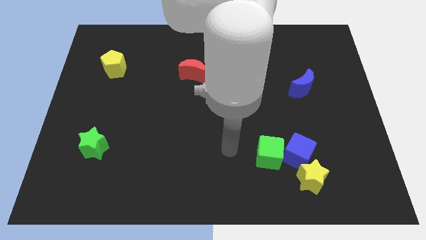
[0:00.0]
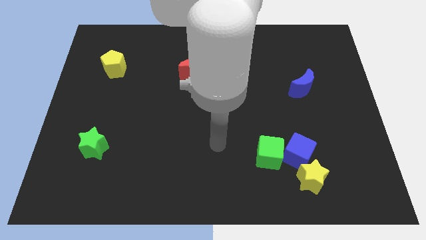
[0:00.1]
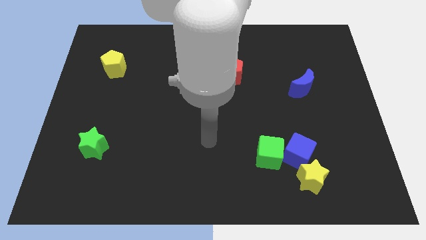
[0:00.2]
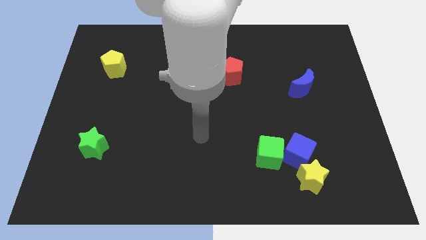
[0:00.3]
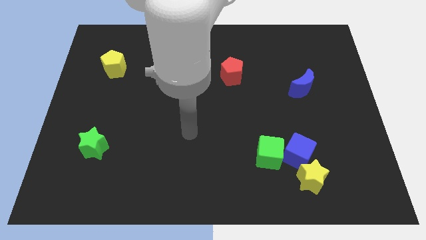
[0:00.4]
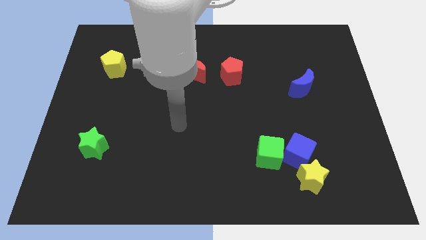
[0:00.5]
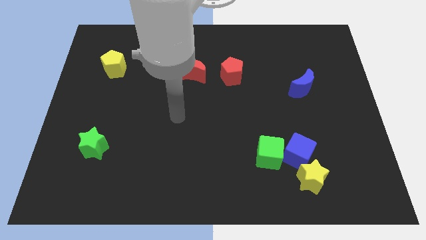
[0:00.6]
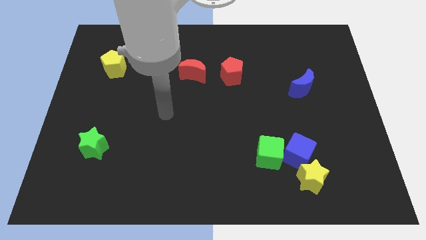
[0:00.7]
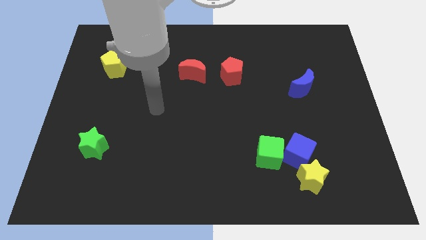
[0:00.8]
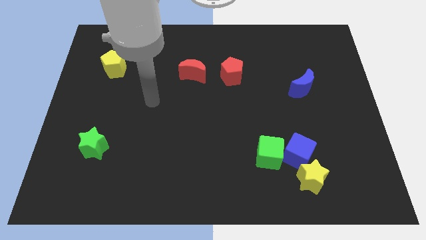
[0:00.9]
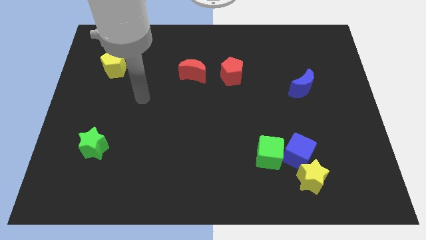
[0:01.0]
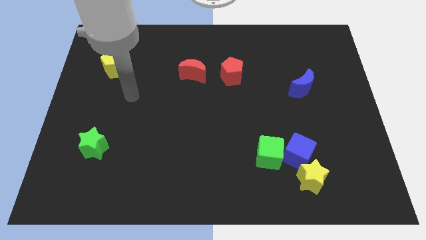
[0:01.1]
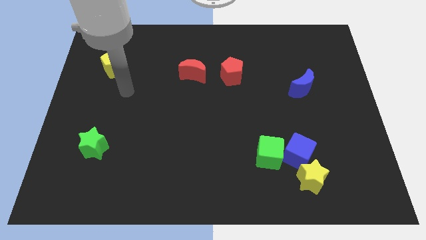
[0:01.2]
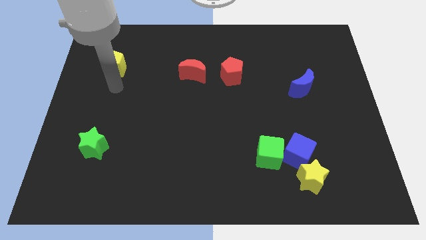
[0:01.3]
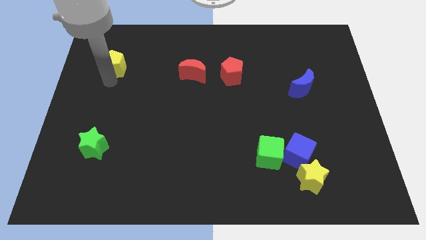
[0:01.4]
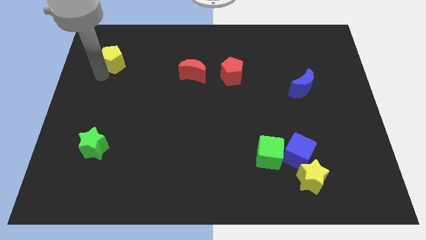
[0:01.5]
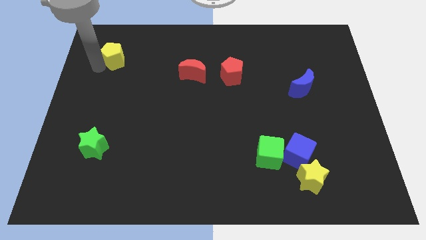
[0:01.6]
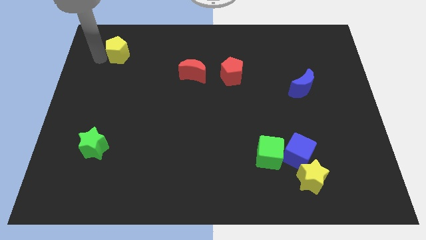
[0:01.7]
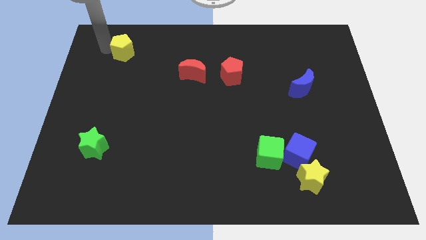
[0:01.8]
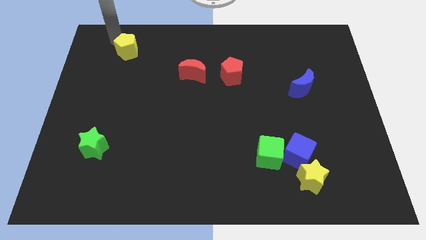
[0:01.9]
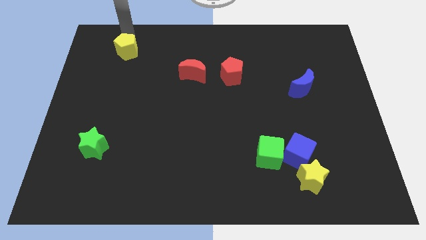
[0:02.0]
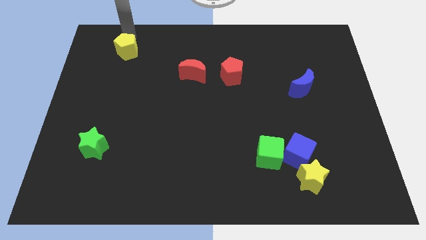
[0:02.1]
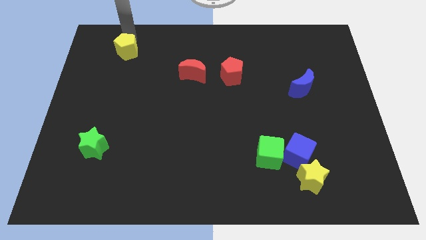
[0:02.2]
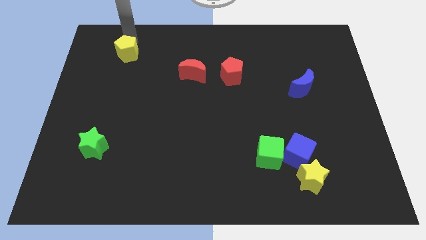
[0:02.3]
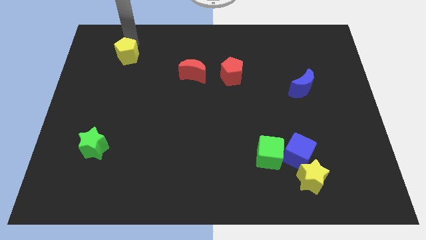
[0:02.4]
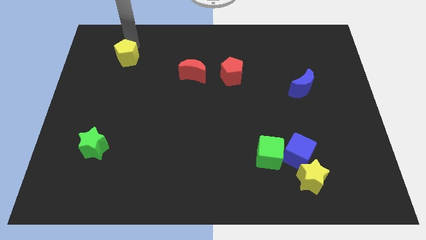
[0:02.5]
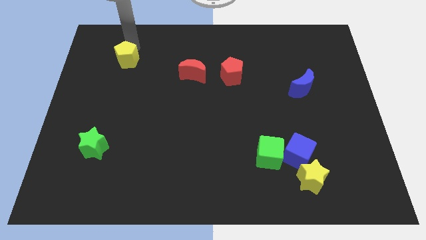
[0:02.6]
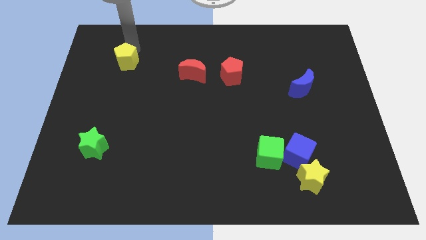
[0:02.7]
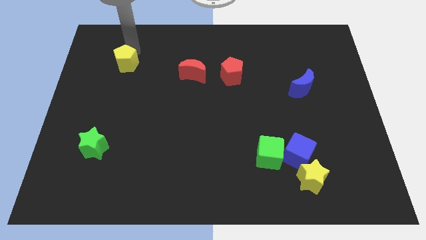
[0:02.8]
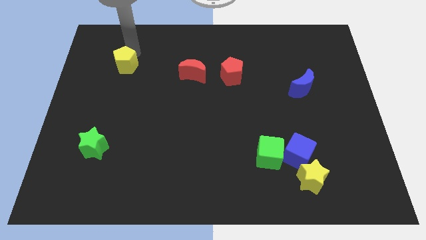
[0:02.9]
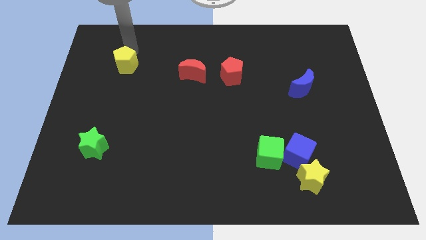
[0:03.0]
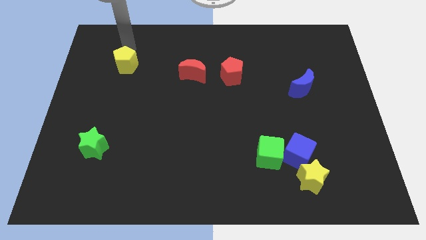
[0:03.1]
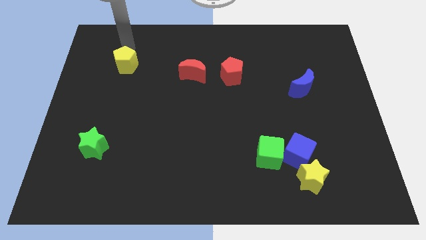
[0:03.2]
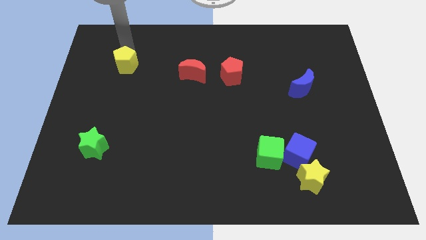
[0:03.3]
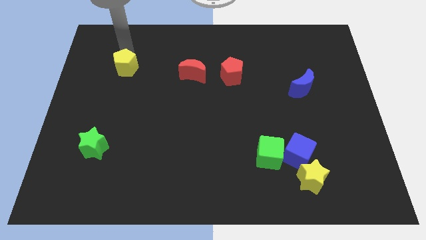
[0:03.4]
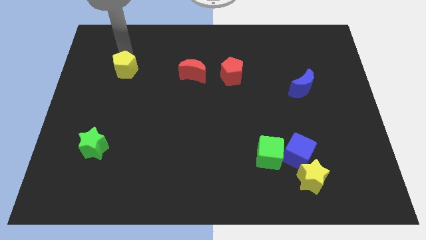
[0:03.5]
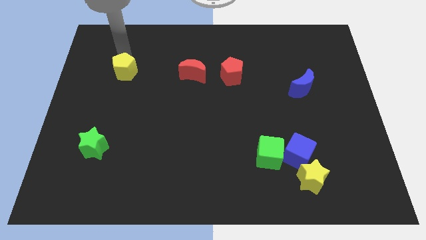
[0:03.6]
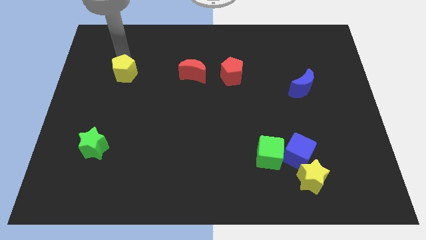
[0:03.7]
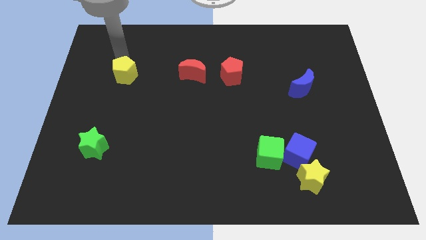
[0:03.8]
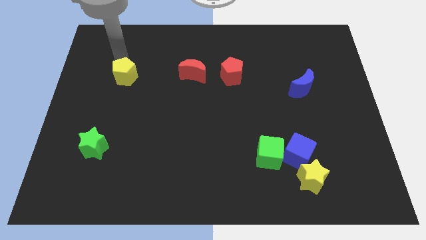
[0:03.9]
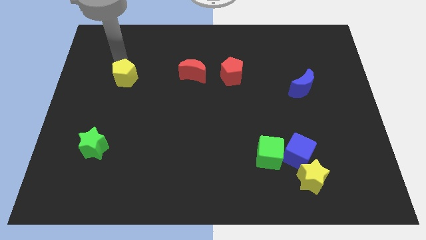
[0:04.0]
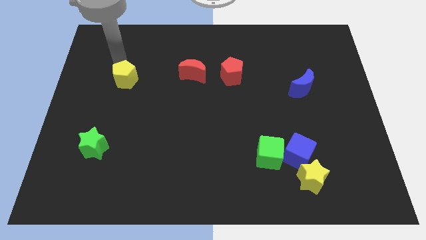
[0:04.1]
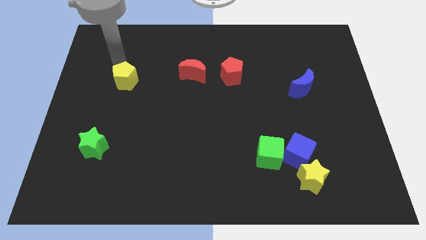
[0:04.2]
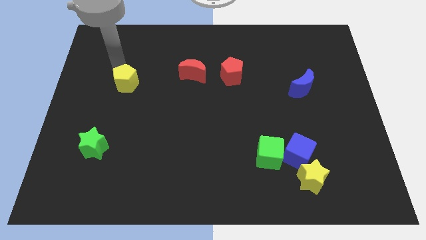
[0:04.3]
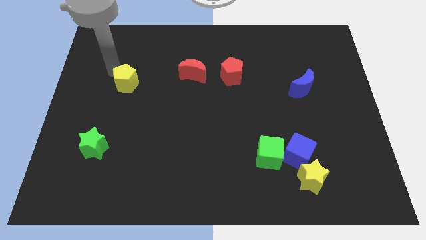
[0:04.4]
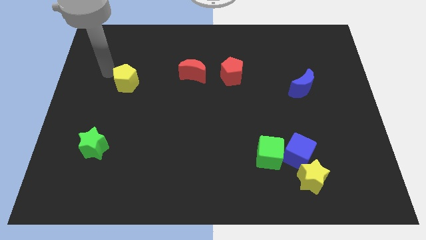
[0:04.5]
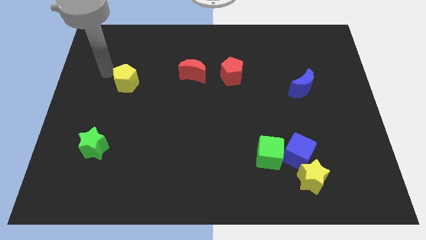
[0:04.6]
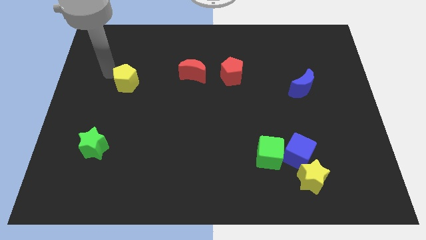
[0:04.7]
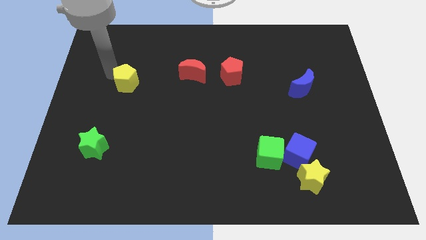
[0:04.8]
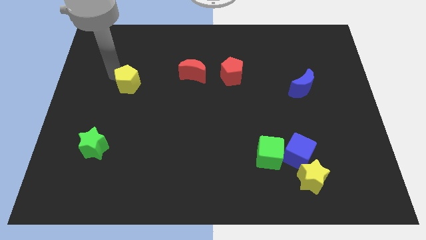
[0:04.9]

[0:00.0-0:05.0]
slightly slide the yellow pentagon down and to the right

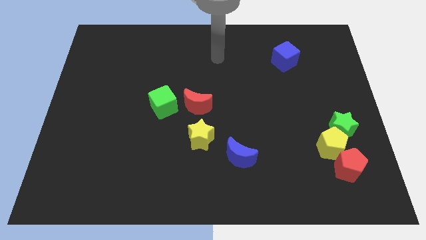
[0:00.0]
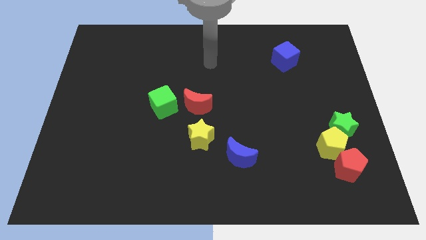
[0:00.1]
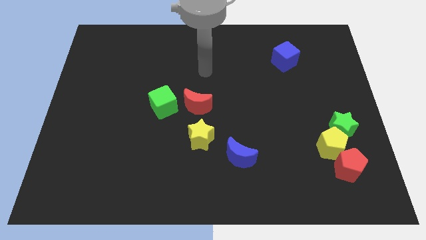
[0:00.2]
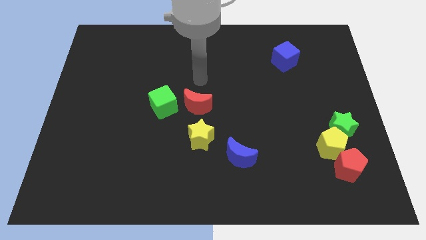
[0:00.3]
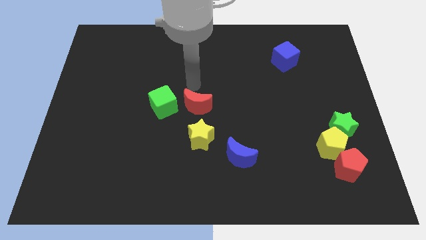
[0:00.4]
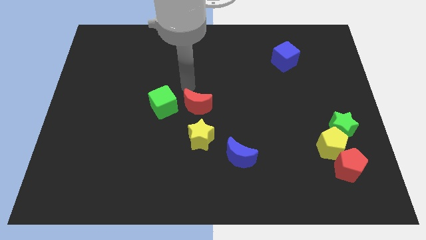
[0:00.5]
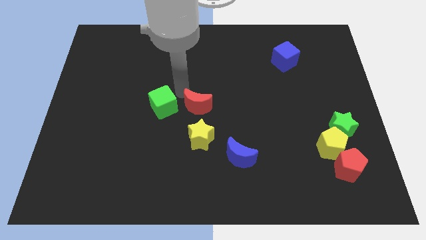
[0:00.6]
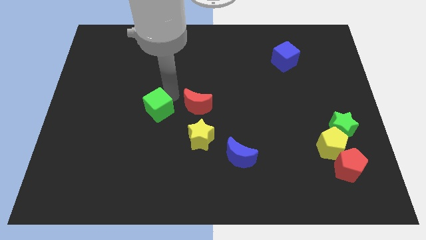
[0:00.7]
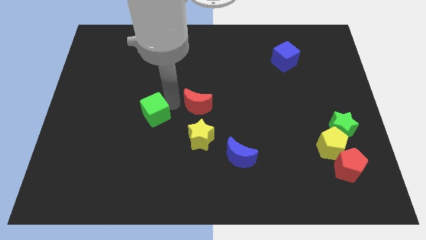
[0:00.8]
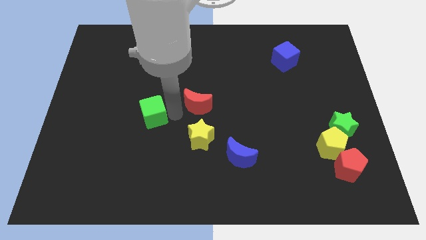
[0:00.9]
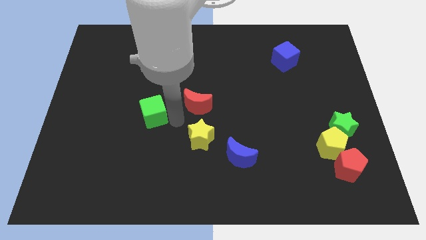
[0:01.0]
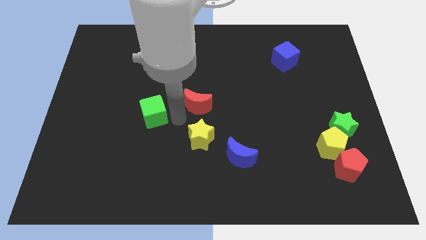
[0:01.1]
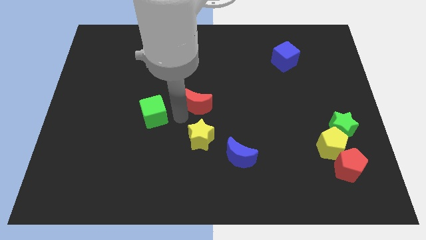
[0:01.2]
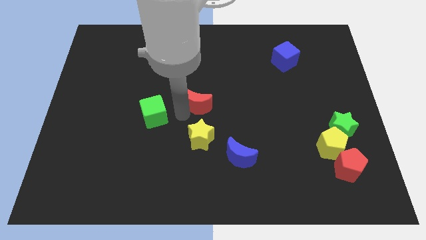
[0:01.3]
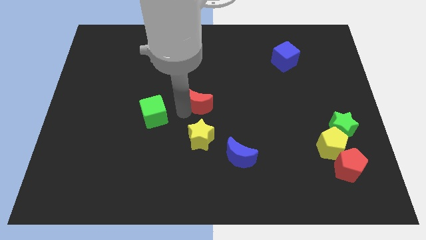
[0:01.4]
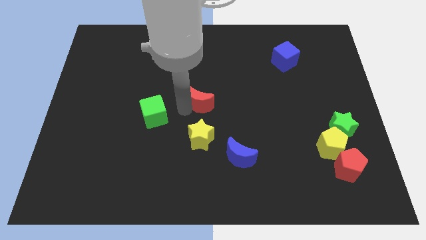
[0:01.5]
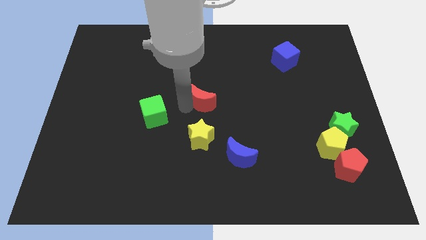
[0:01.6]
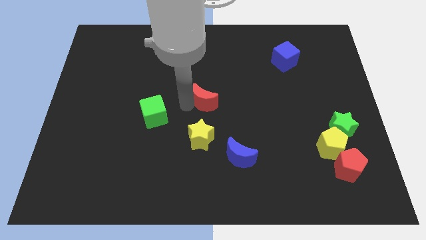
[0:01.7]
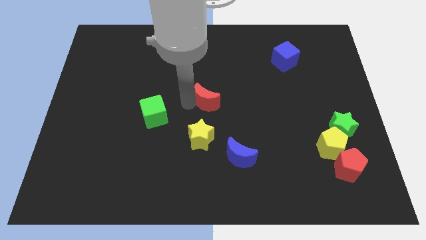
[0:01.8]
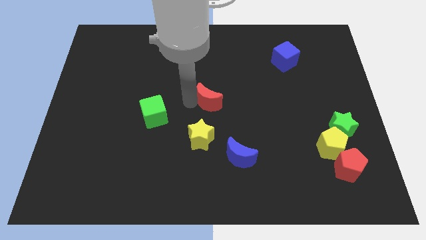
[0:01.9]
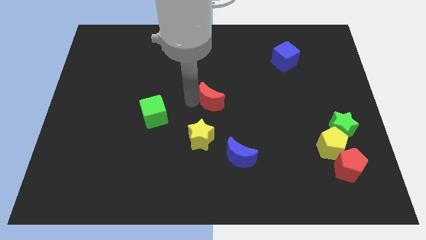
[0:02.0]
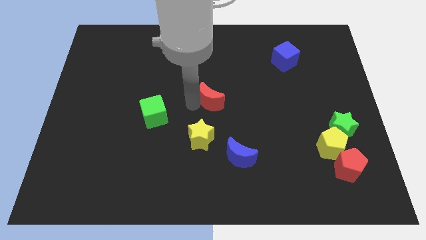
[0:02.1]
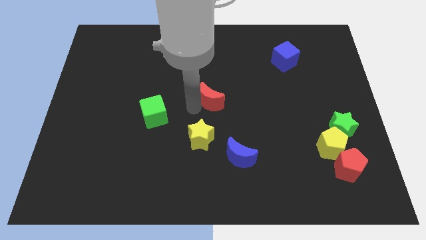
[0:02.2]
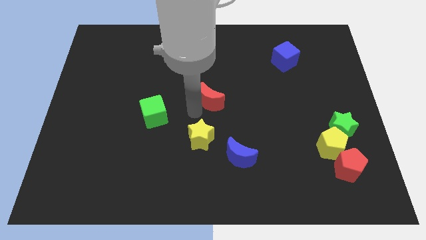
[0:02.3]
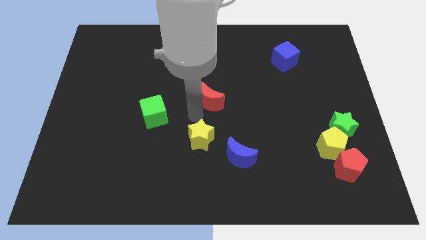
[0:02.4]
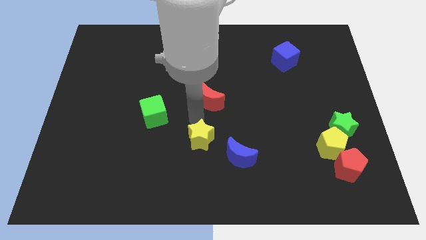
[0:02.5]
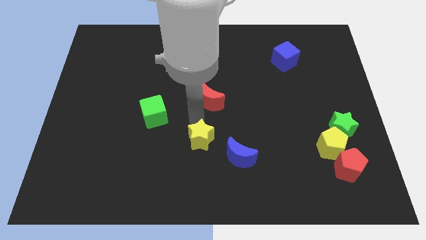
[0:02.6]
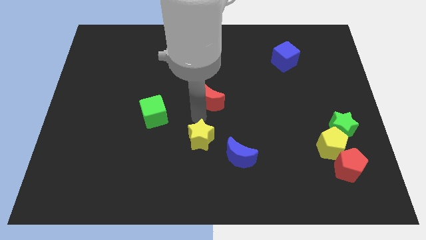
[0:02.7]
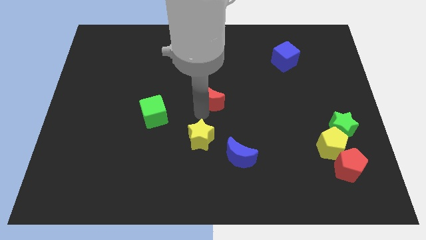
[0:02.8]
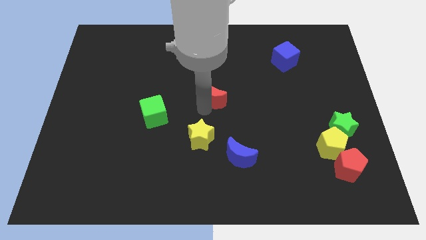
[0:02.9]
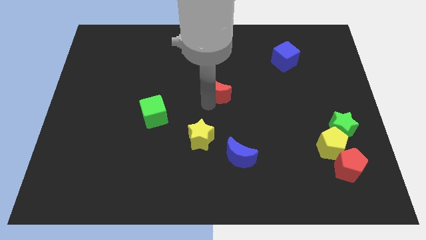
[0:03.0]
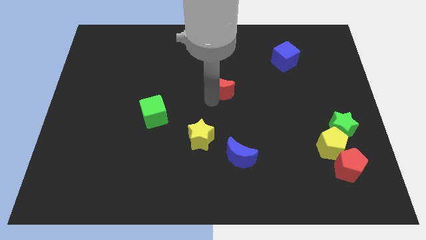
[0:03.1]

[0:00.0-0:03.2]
slide the red moon up and right diagonally a little
